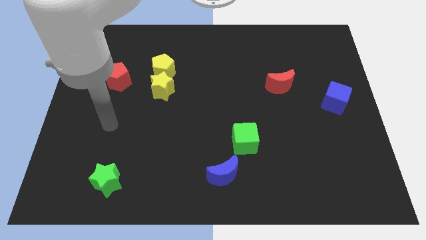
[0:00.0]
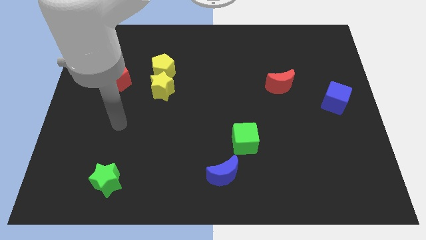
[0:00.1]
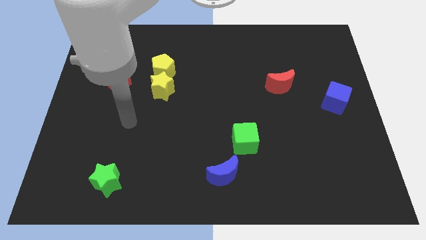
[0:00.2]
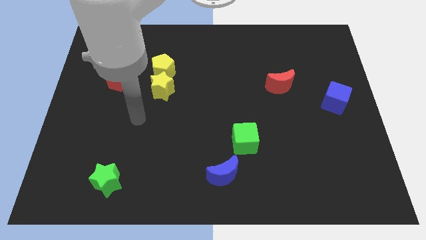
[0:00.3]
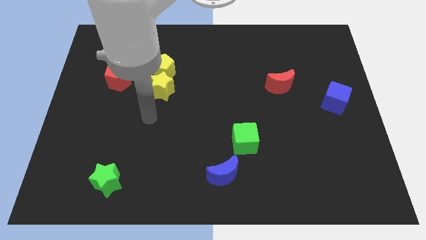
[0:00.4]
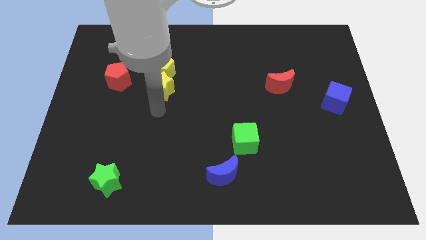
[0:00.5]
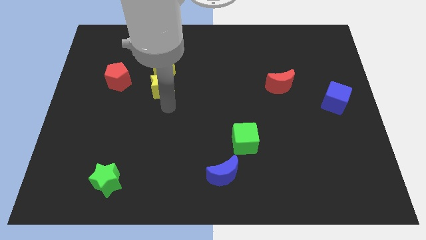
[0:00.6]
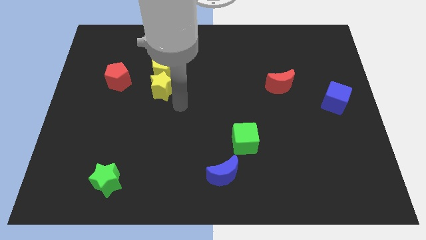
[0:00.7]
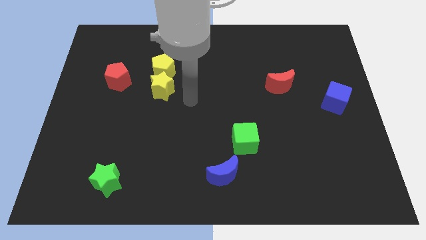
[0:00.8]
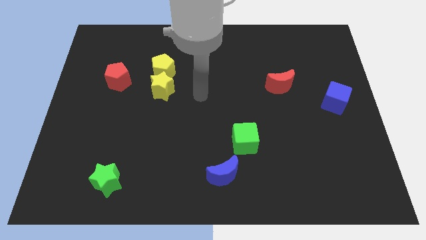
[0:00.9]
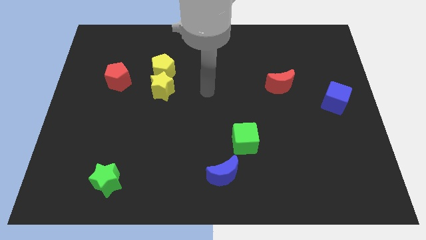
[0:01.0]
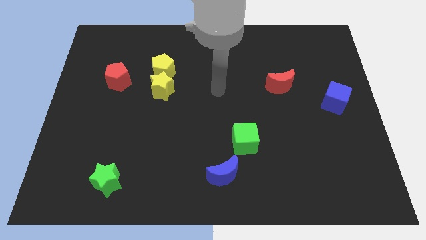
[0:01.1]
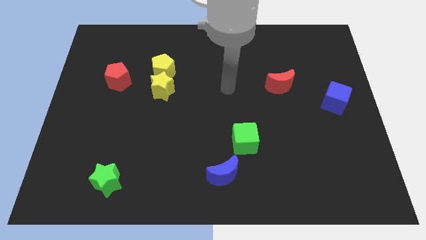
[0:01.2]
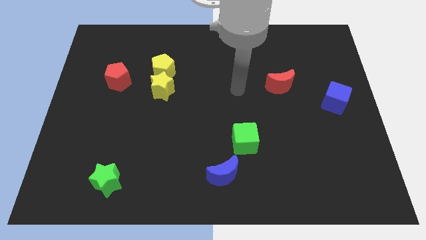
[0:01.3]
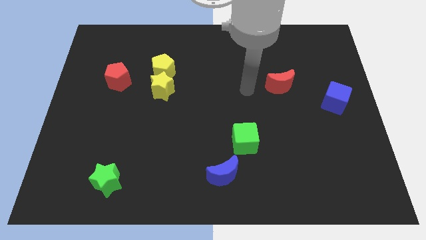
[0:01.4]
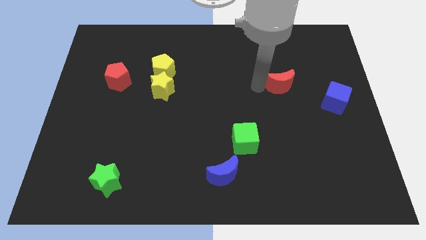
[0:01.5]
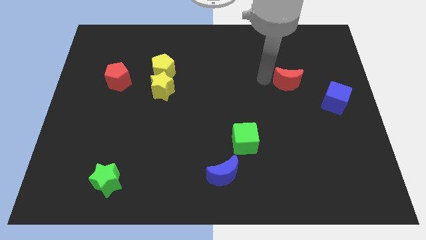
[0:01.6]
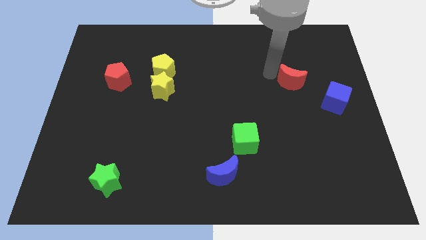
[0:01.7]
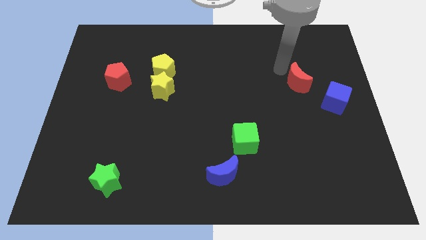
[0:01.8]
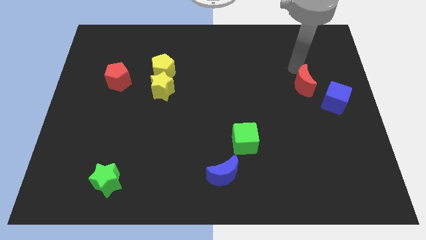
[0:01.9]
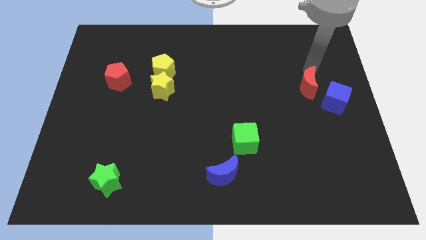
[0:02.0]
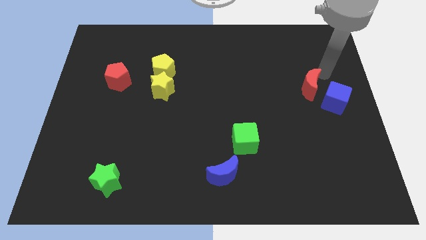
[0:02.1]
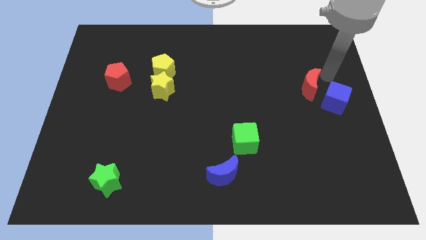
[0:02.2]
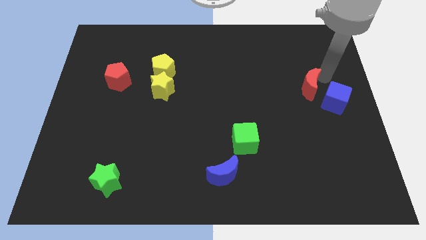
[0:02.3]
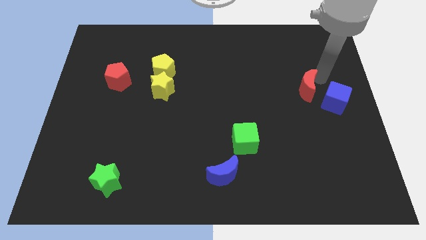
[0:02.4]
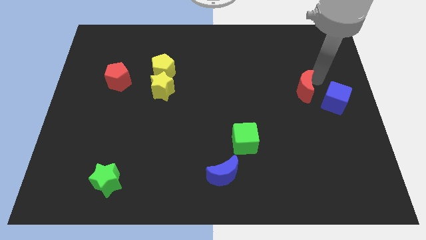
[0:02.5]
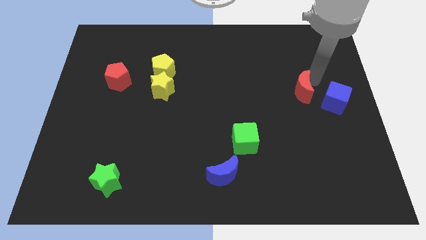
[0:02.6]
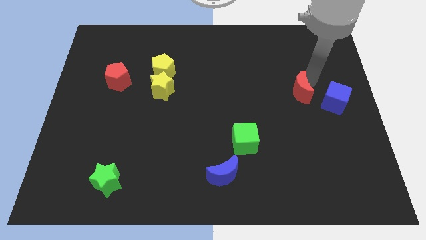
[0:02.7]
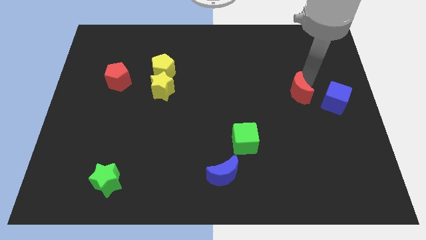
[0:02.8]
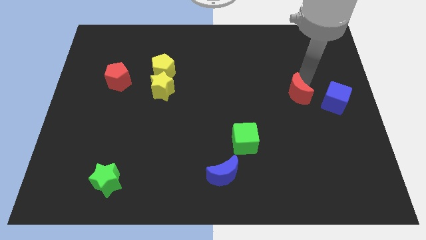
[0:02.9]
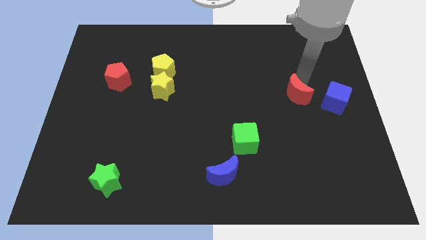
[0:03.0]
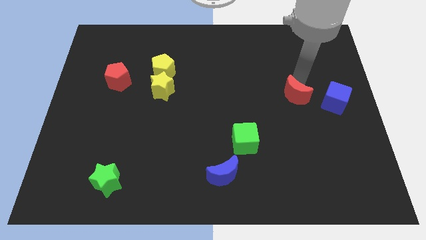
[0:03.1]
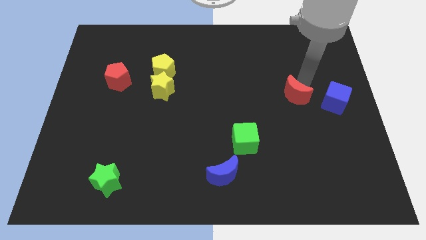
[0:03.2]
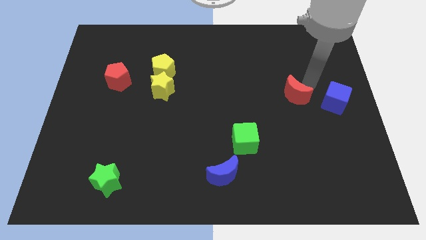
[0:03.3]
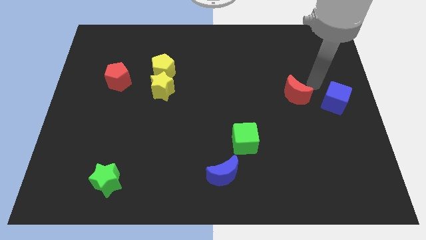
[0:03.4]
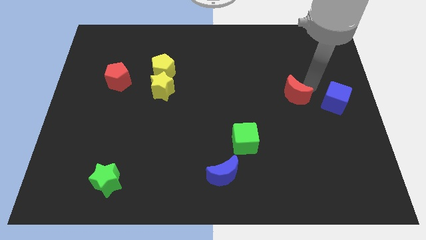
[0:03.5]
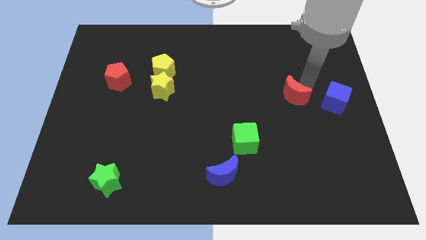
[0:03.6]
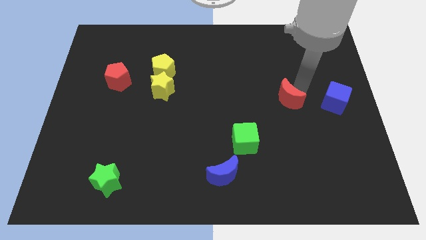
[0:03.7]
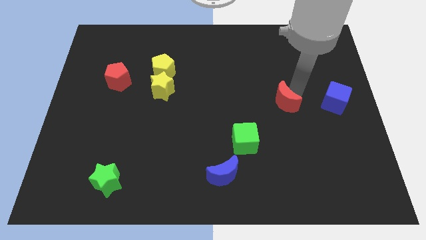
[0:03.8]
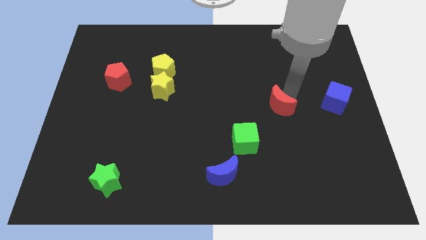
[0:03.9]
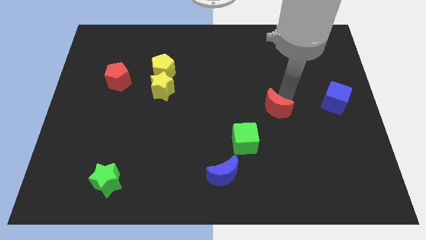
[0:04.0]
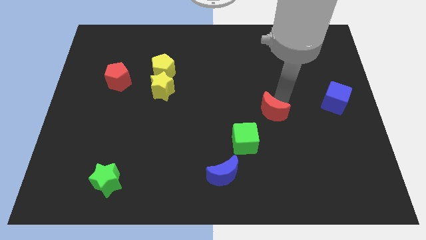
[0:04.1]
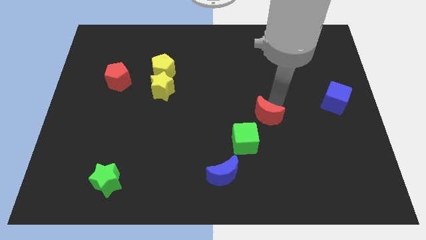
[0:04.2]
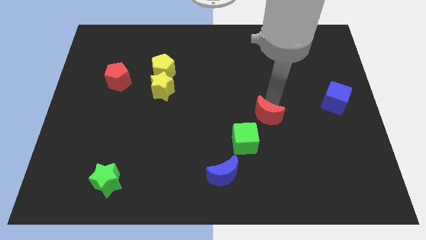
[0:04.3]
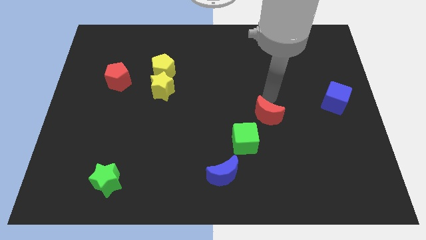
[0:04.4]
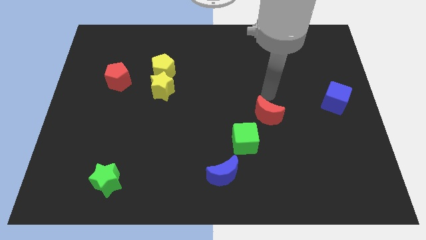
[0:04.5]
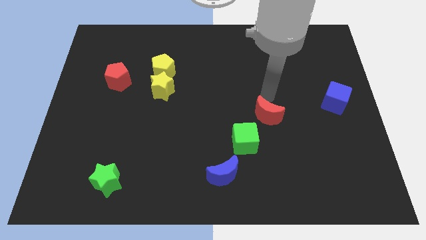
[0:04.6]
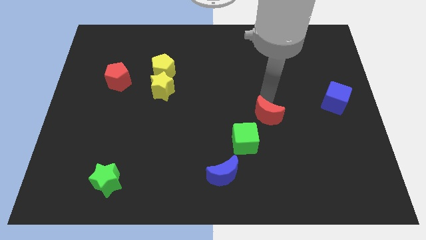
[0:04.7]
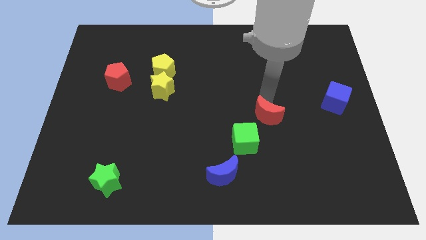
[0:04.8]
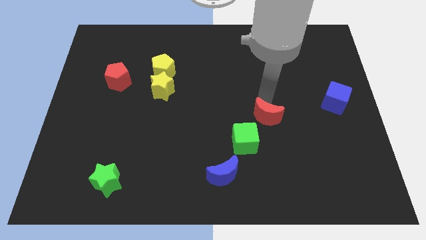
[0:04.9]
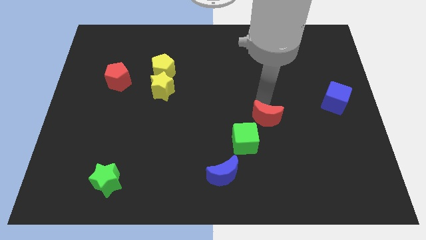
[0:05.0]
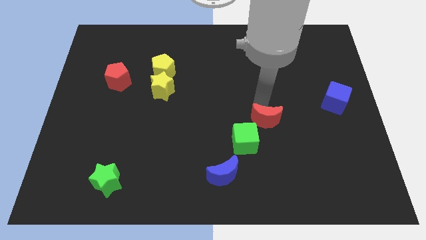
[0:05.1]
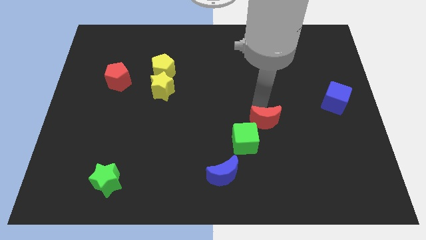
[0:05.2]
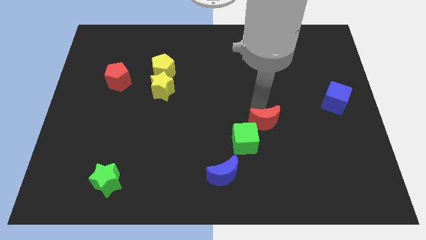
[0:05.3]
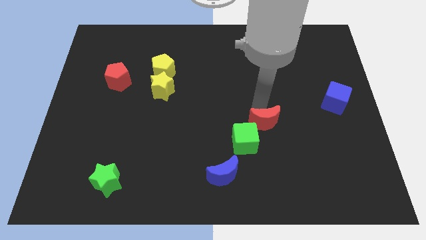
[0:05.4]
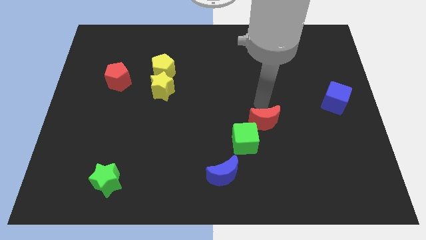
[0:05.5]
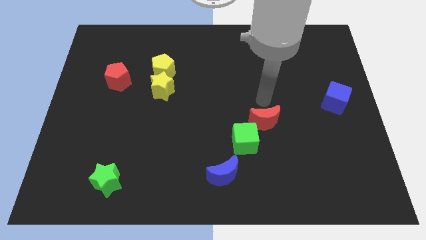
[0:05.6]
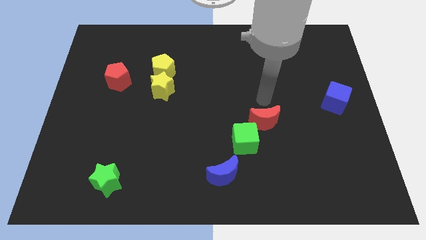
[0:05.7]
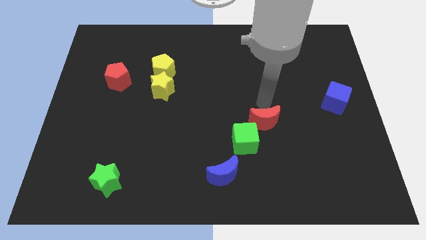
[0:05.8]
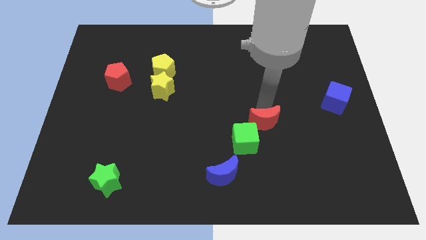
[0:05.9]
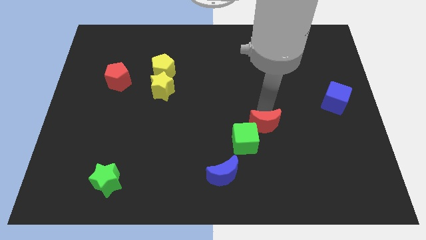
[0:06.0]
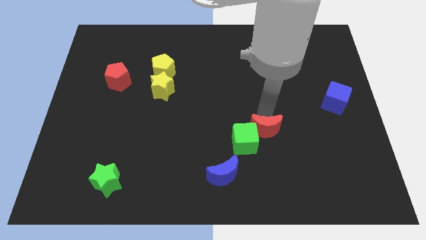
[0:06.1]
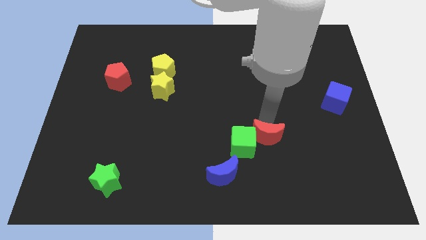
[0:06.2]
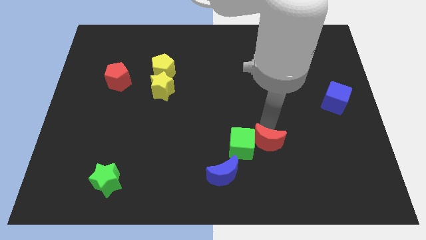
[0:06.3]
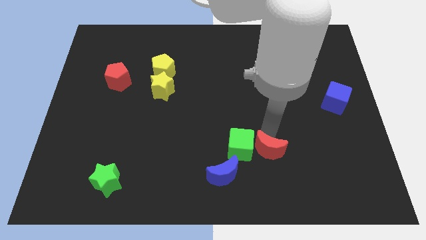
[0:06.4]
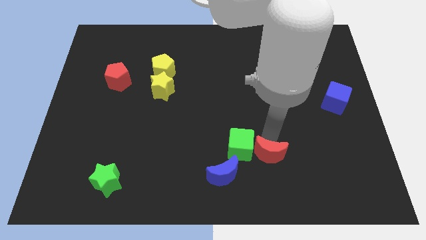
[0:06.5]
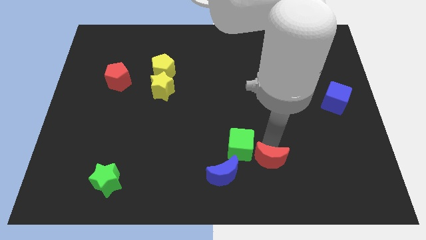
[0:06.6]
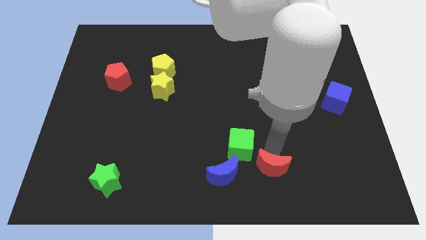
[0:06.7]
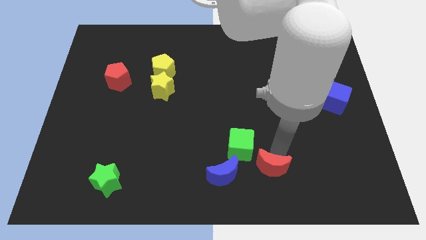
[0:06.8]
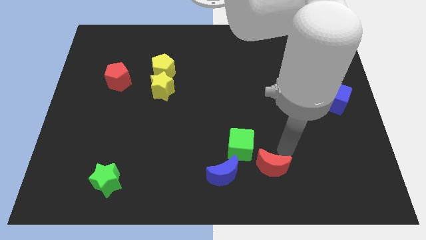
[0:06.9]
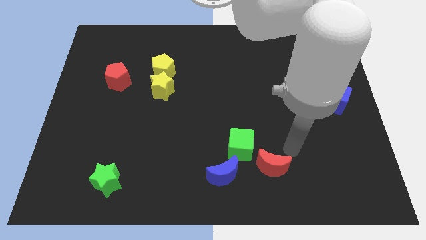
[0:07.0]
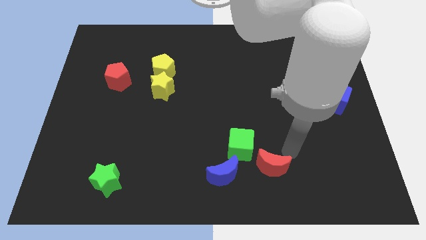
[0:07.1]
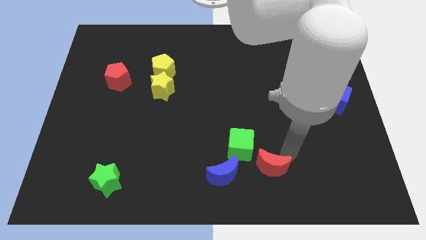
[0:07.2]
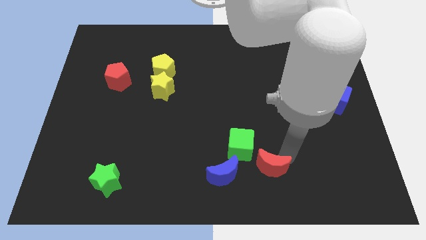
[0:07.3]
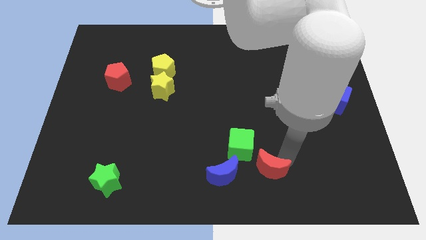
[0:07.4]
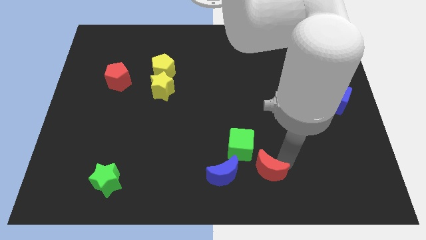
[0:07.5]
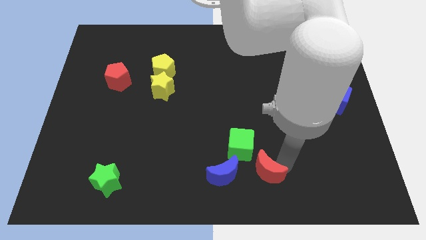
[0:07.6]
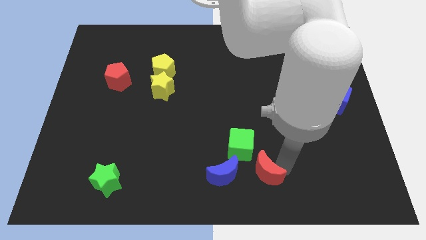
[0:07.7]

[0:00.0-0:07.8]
slide the red moon to the bottom
